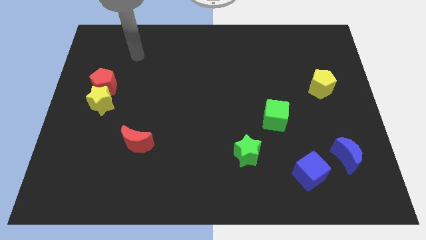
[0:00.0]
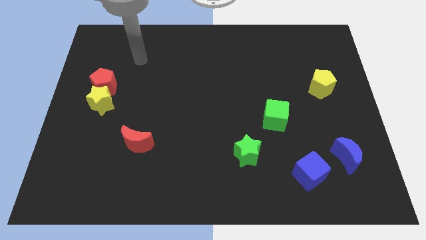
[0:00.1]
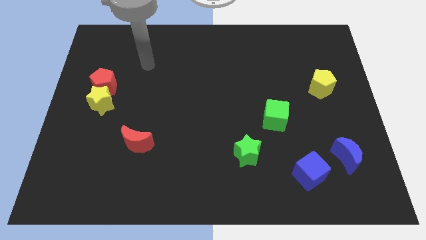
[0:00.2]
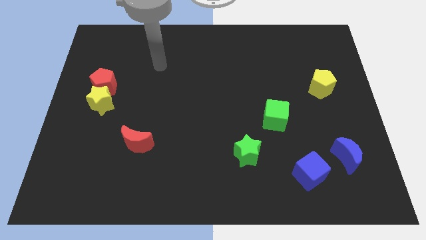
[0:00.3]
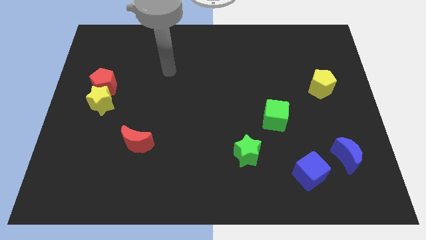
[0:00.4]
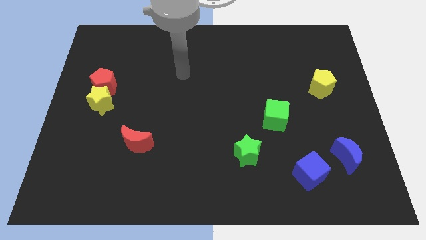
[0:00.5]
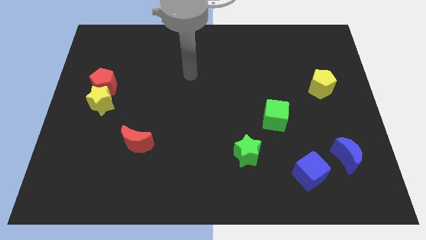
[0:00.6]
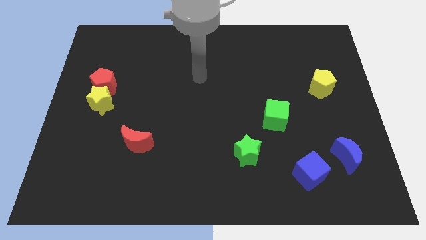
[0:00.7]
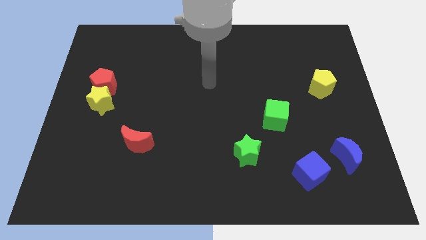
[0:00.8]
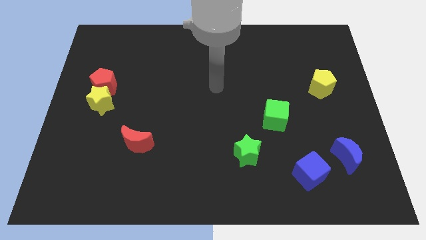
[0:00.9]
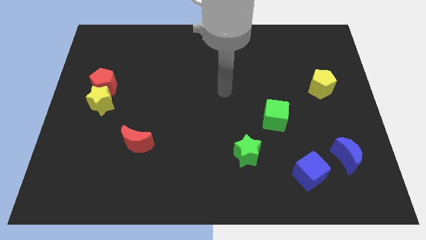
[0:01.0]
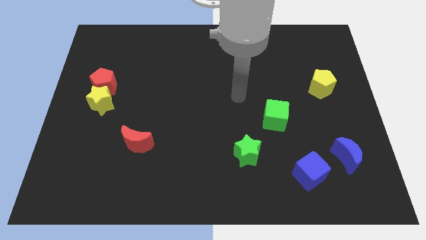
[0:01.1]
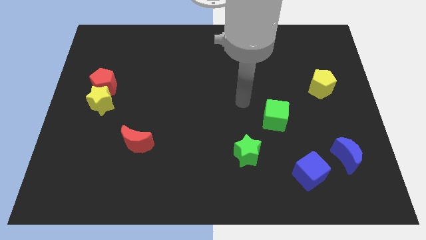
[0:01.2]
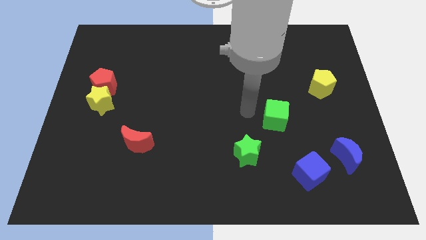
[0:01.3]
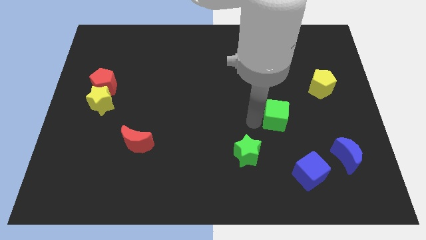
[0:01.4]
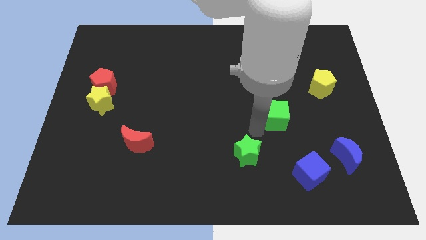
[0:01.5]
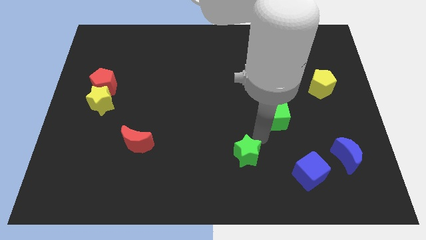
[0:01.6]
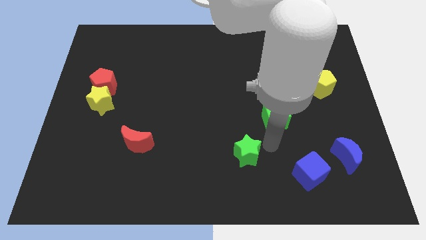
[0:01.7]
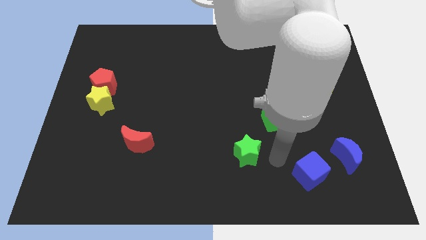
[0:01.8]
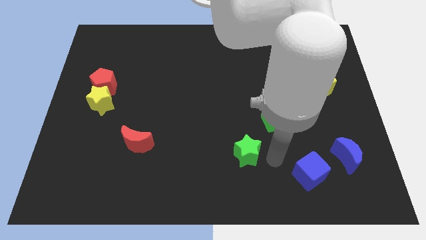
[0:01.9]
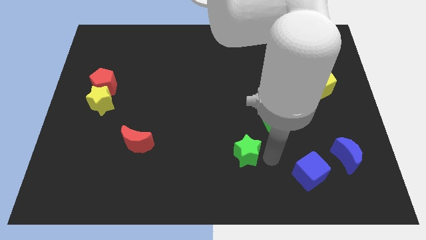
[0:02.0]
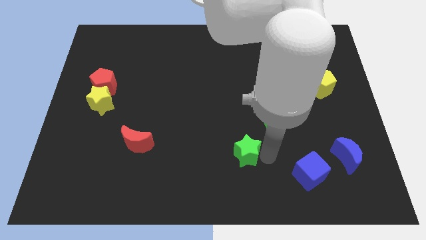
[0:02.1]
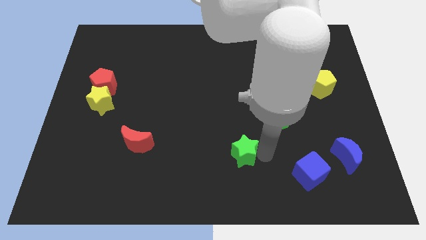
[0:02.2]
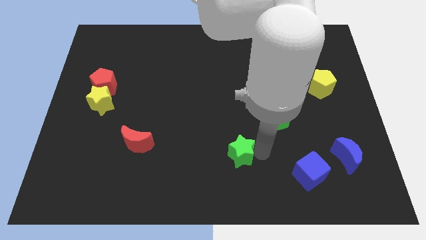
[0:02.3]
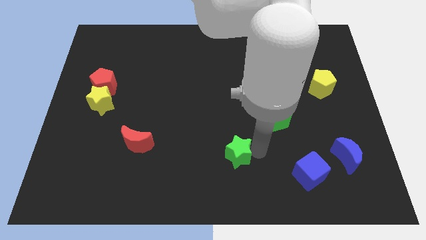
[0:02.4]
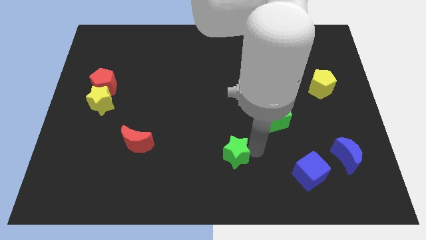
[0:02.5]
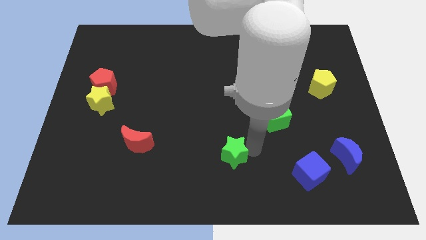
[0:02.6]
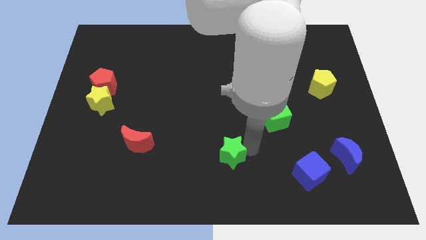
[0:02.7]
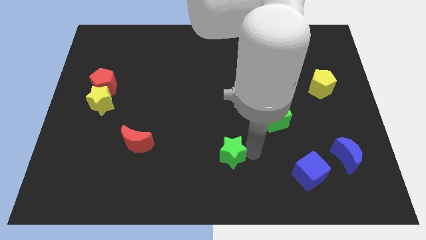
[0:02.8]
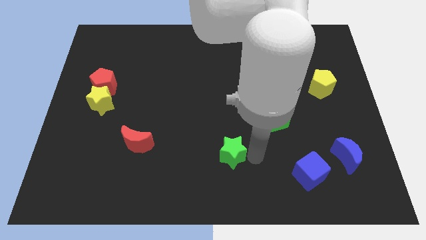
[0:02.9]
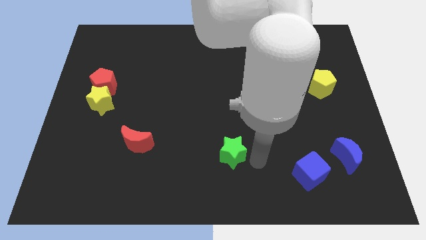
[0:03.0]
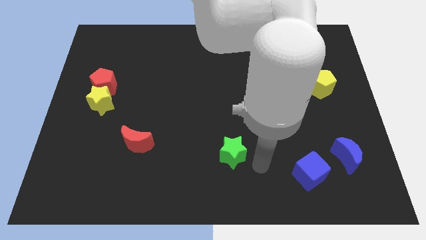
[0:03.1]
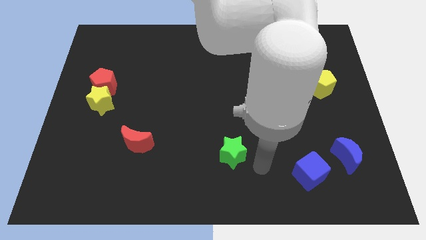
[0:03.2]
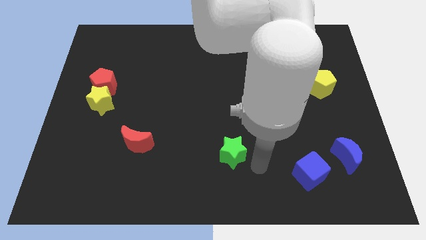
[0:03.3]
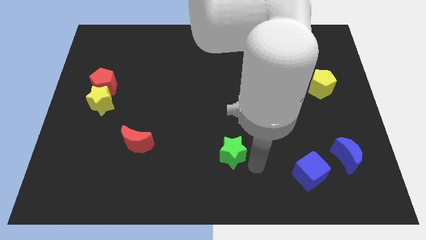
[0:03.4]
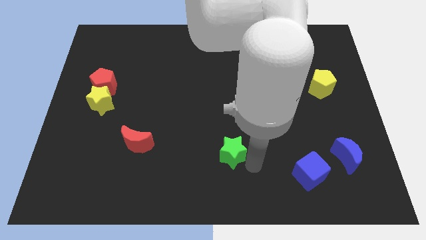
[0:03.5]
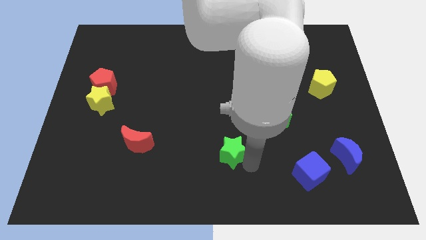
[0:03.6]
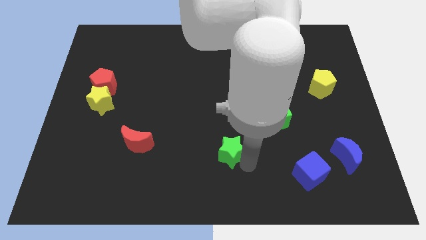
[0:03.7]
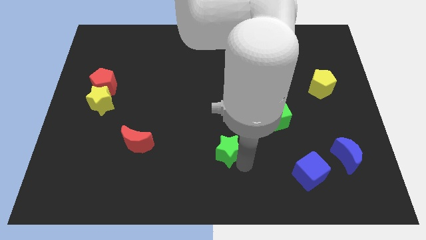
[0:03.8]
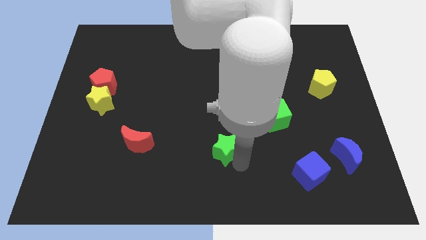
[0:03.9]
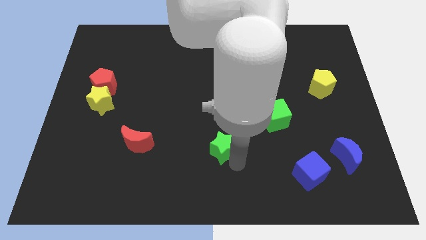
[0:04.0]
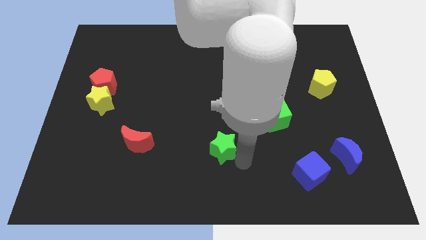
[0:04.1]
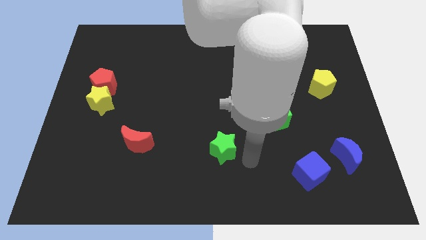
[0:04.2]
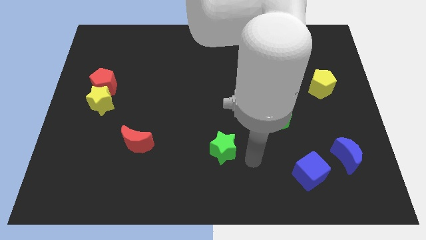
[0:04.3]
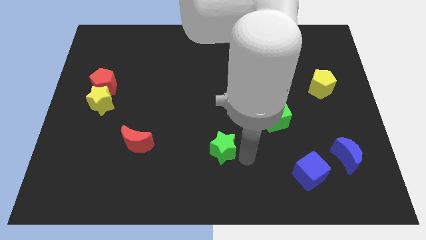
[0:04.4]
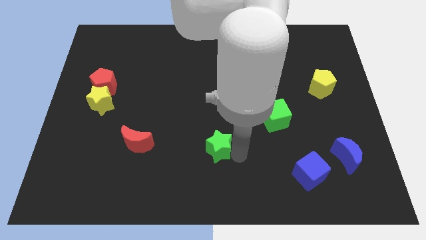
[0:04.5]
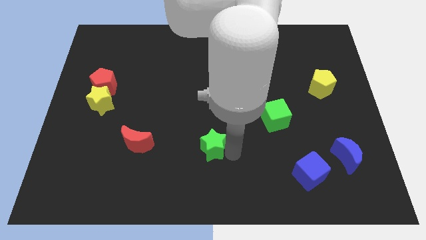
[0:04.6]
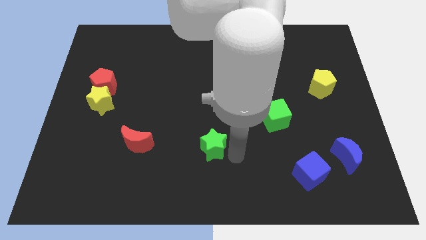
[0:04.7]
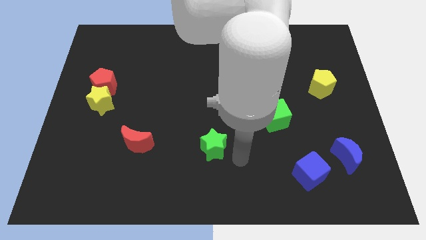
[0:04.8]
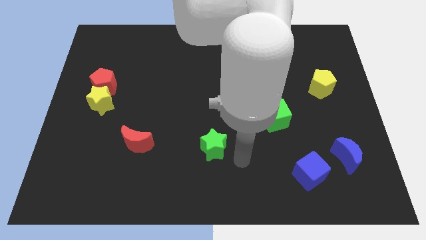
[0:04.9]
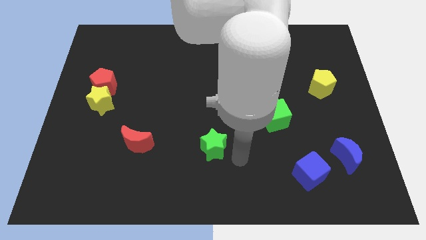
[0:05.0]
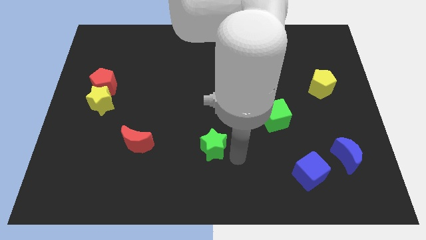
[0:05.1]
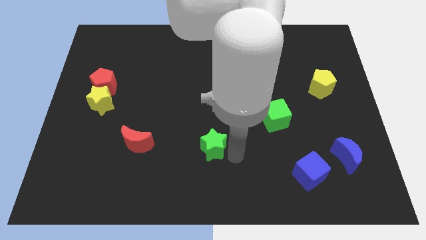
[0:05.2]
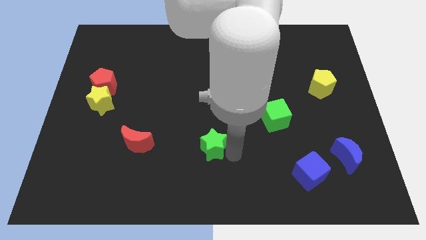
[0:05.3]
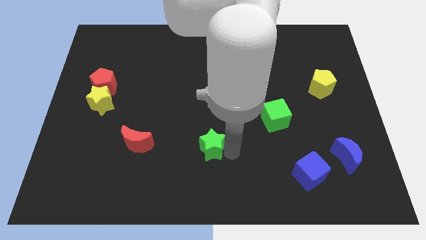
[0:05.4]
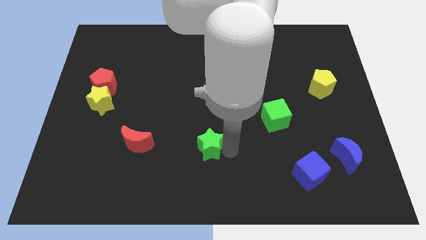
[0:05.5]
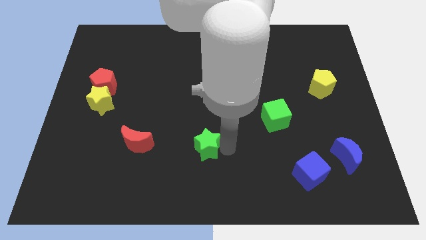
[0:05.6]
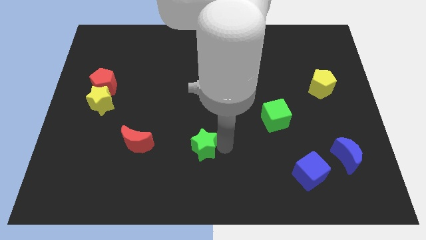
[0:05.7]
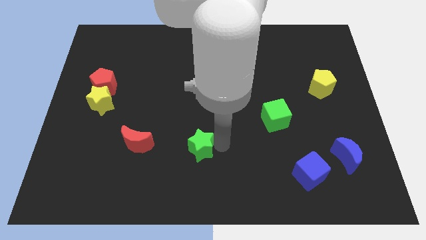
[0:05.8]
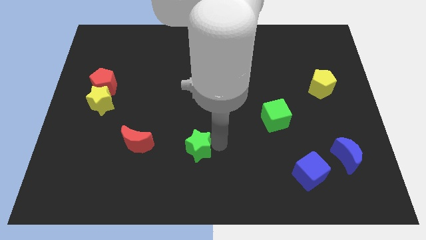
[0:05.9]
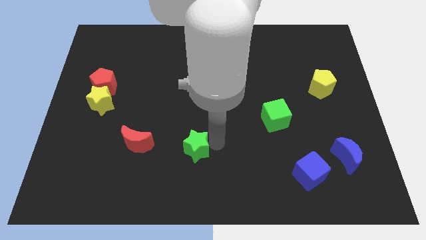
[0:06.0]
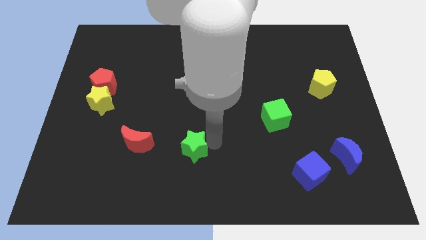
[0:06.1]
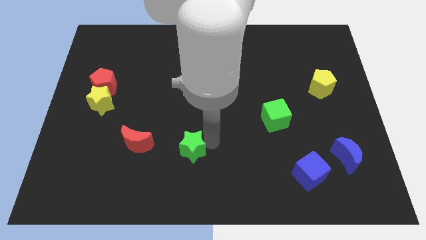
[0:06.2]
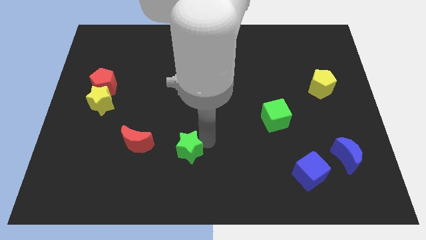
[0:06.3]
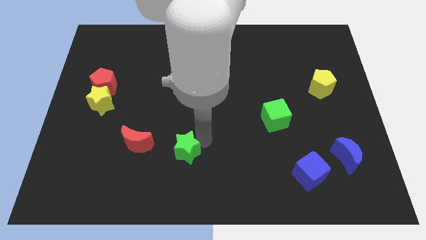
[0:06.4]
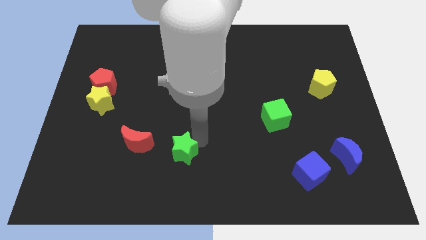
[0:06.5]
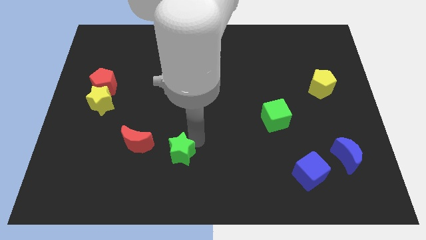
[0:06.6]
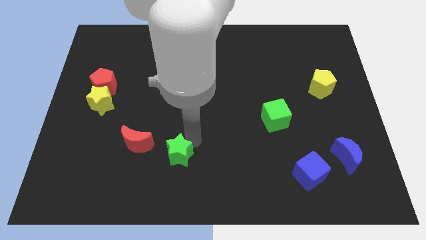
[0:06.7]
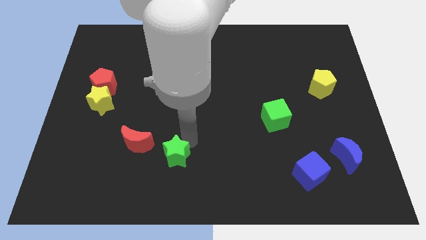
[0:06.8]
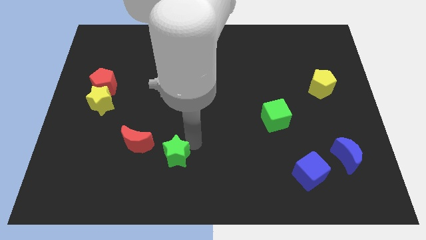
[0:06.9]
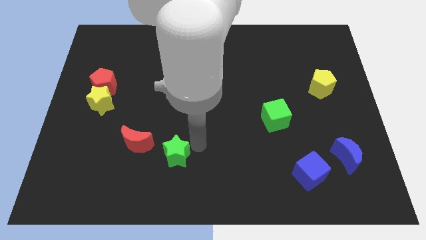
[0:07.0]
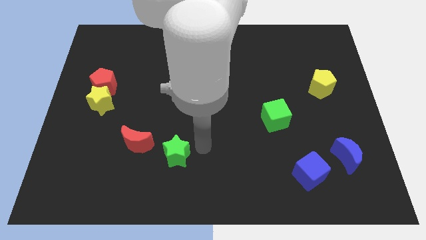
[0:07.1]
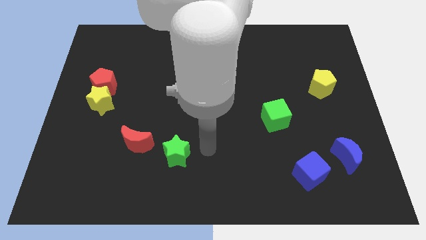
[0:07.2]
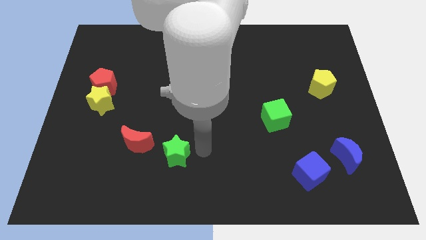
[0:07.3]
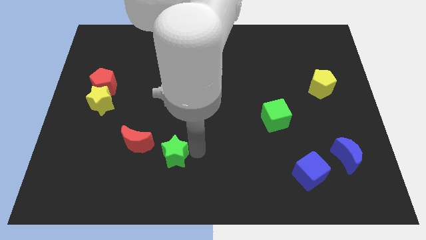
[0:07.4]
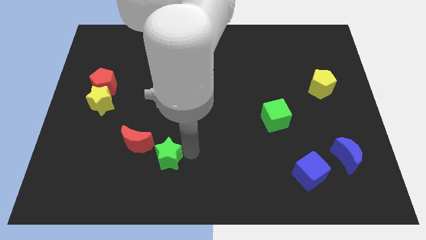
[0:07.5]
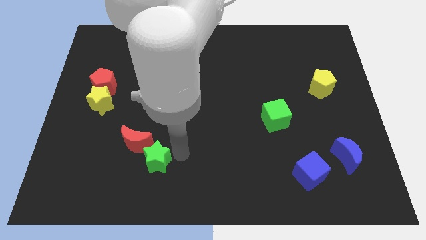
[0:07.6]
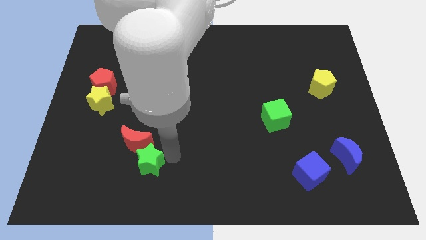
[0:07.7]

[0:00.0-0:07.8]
slide the green star to the left
